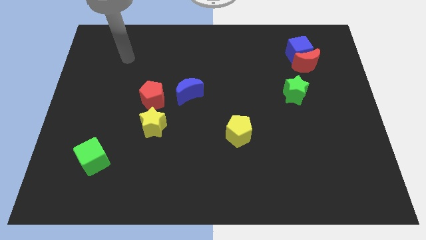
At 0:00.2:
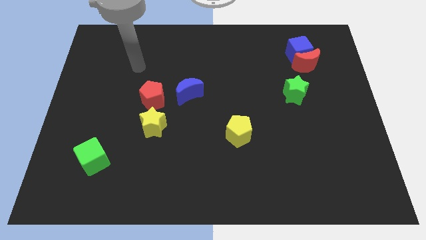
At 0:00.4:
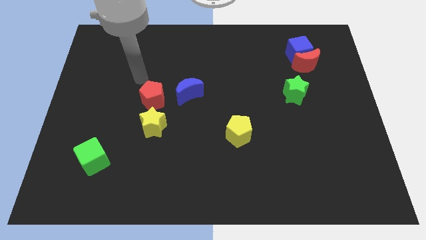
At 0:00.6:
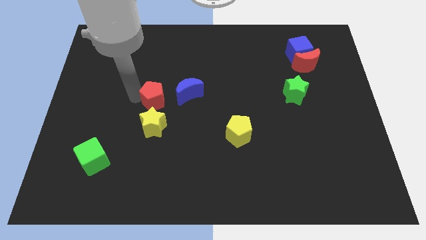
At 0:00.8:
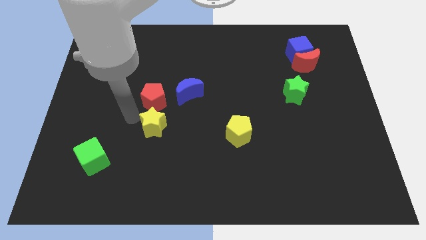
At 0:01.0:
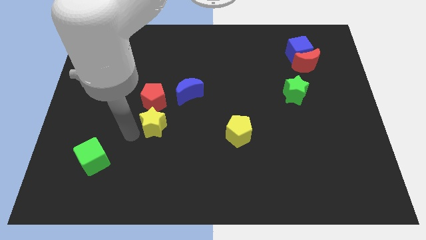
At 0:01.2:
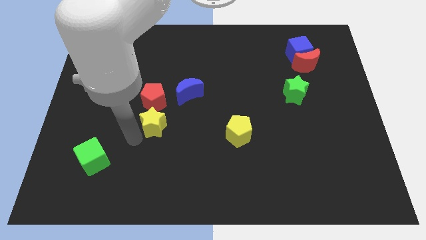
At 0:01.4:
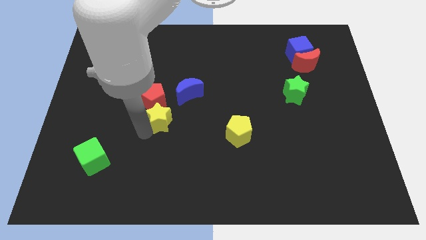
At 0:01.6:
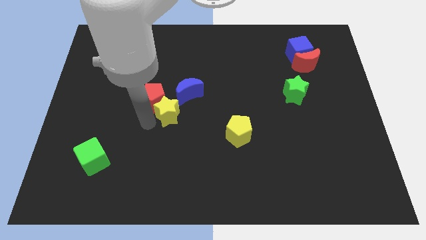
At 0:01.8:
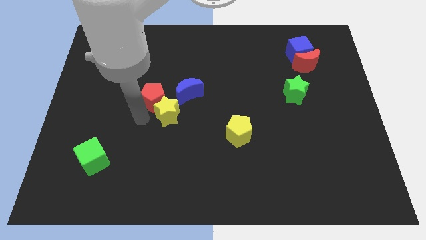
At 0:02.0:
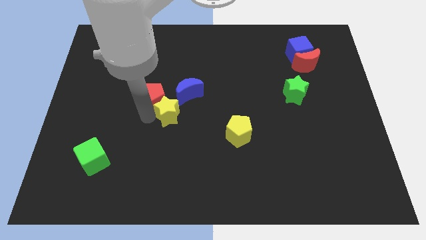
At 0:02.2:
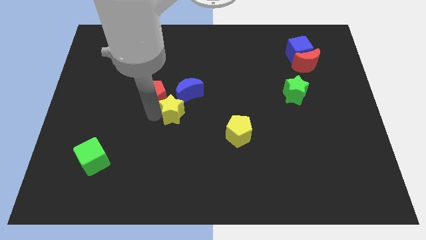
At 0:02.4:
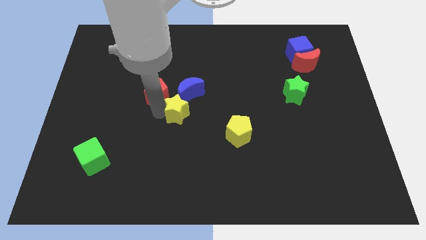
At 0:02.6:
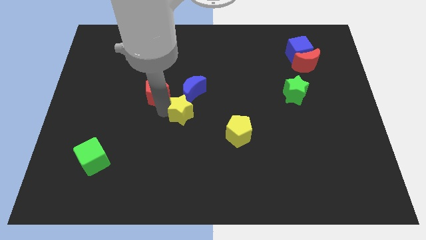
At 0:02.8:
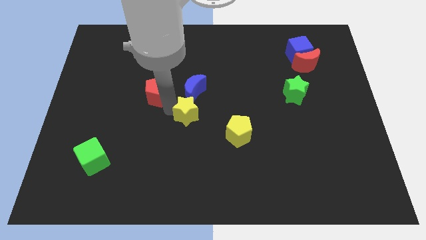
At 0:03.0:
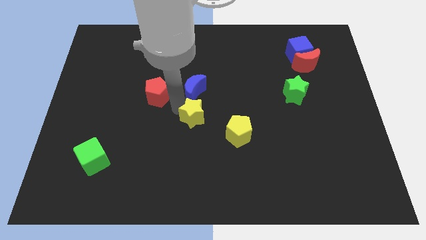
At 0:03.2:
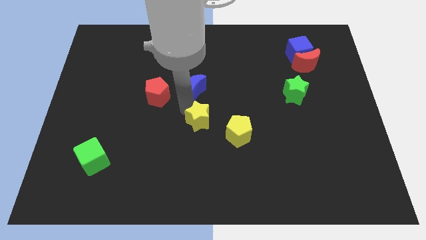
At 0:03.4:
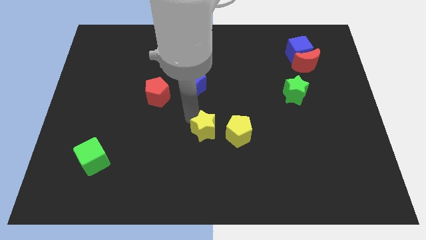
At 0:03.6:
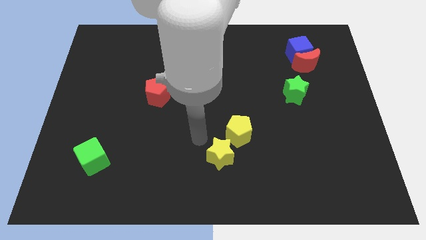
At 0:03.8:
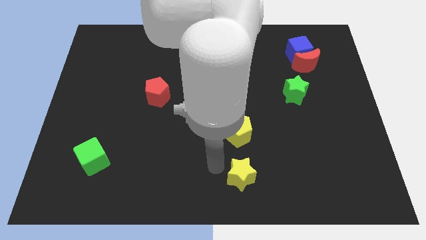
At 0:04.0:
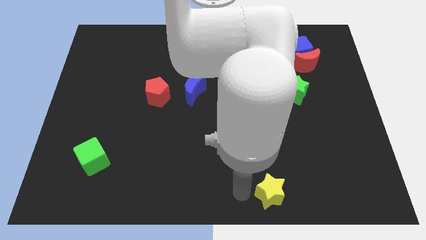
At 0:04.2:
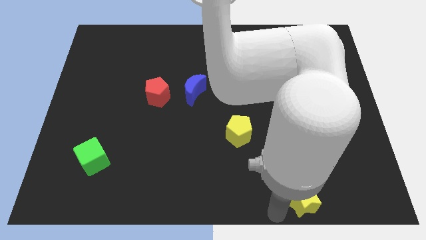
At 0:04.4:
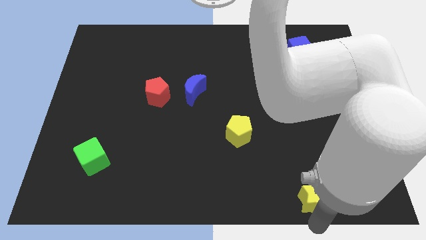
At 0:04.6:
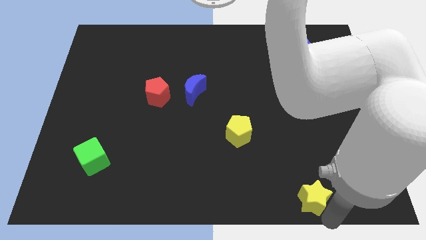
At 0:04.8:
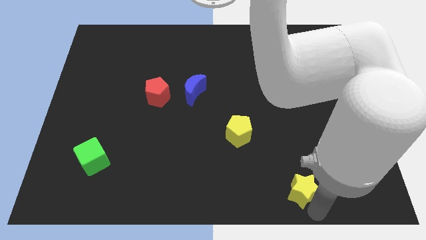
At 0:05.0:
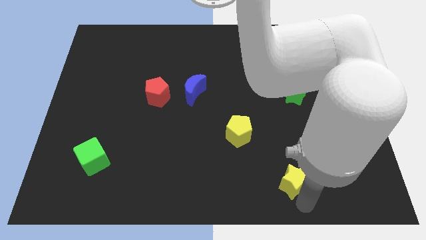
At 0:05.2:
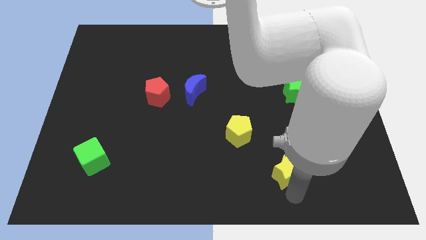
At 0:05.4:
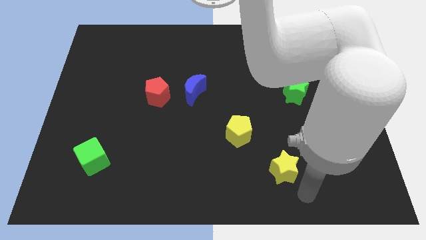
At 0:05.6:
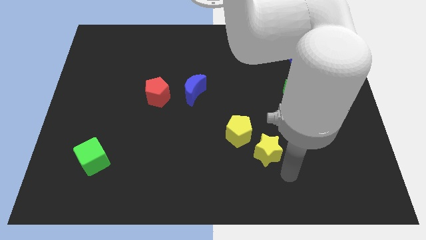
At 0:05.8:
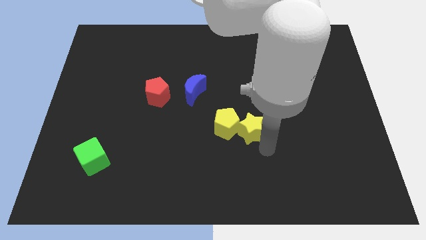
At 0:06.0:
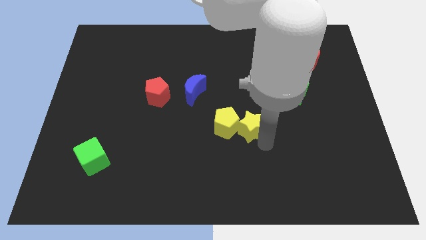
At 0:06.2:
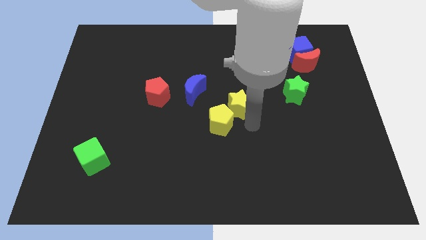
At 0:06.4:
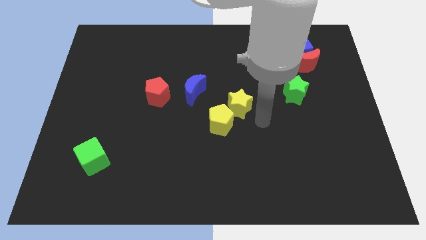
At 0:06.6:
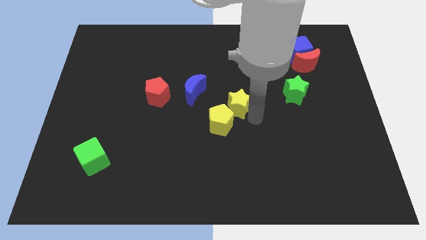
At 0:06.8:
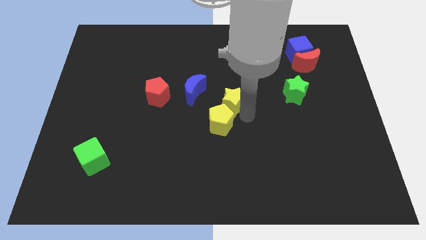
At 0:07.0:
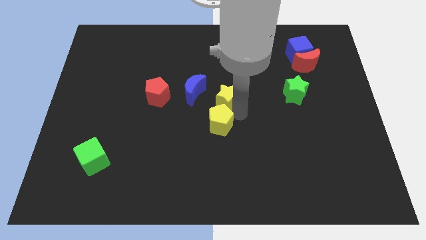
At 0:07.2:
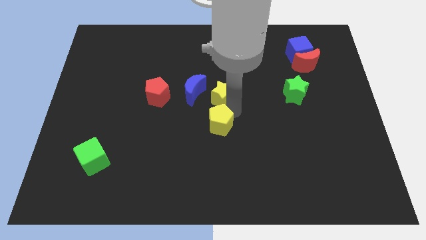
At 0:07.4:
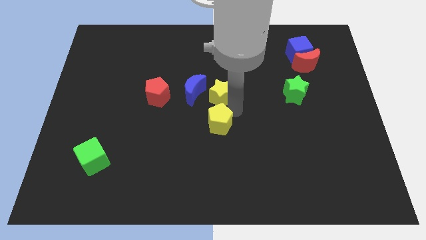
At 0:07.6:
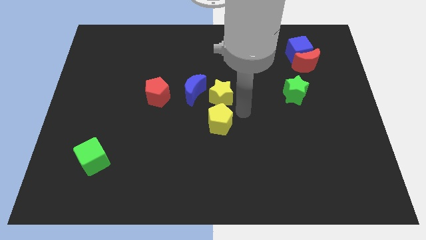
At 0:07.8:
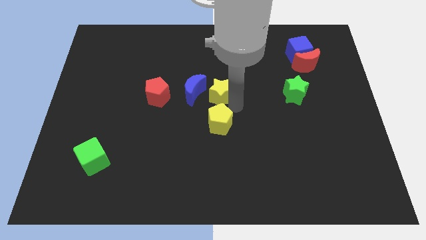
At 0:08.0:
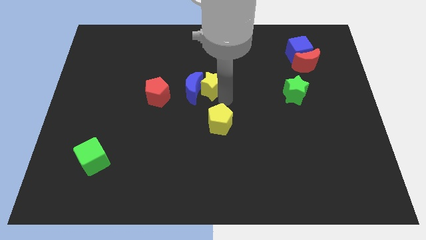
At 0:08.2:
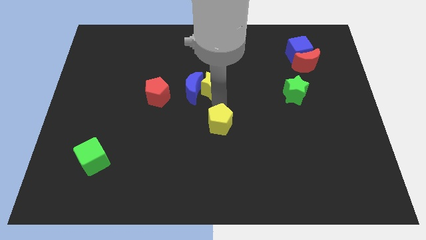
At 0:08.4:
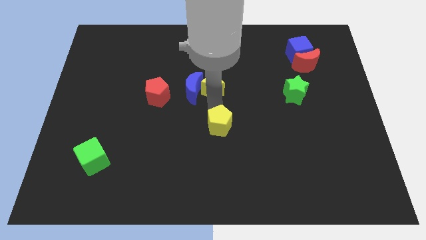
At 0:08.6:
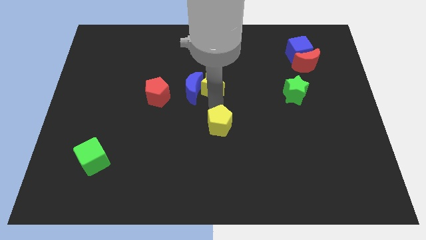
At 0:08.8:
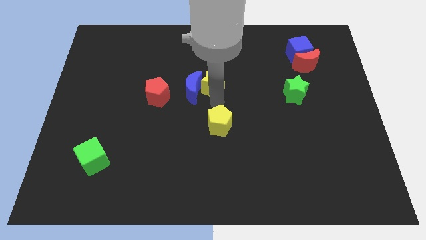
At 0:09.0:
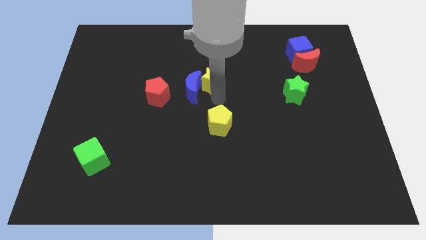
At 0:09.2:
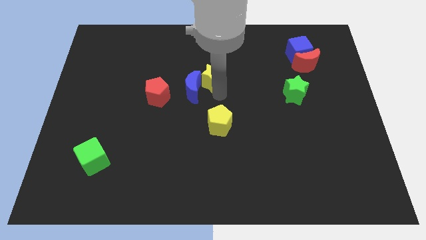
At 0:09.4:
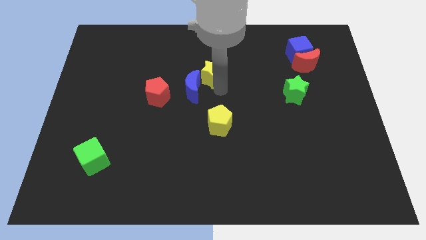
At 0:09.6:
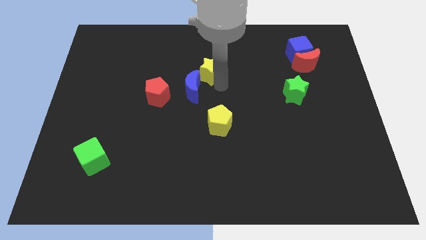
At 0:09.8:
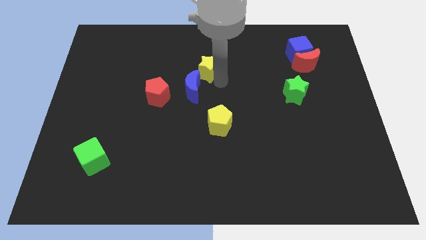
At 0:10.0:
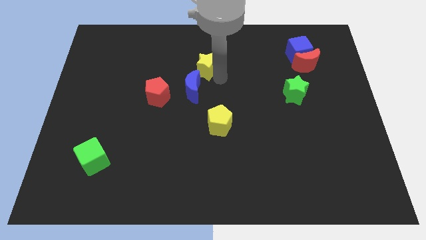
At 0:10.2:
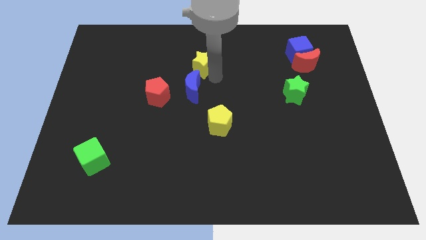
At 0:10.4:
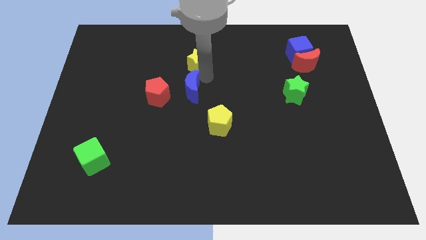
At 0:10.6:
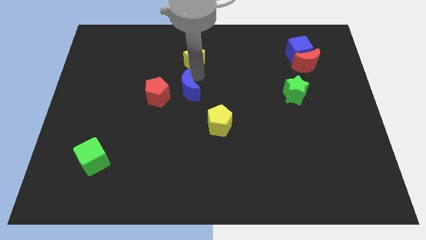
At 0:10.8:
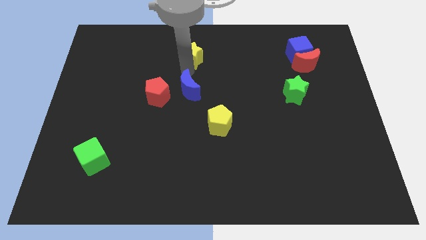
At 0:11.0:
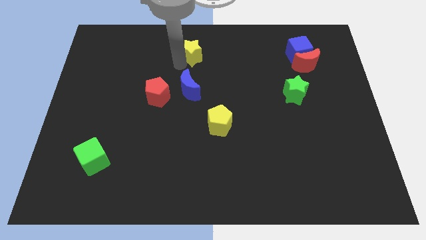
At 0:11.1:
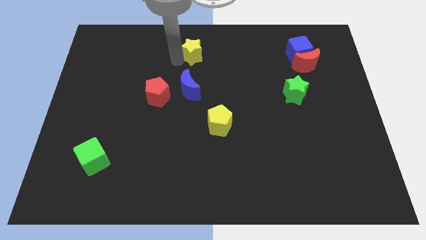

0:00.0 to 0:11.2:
move the yellow star to the top side

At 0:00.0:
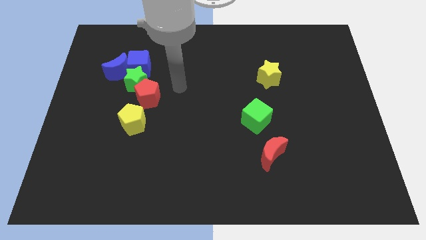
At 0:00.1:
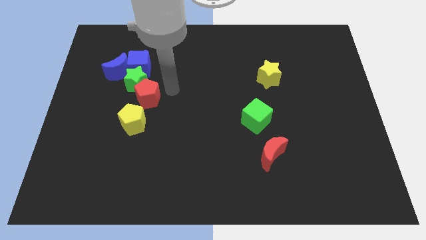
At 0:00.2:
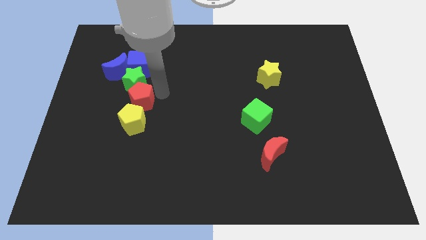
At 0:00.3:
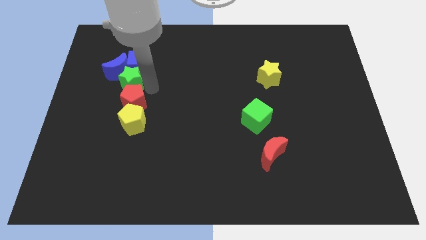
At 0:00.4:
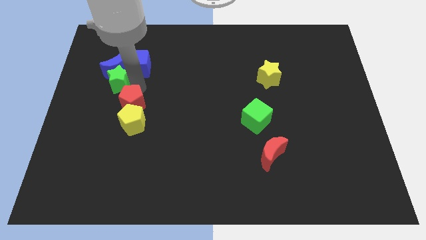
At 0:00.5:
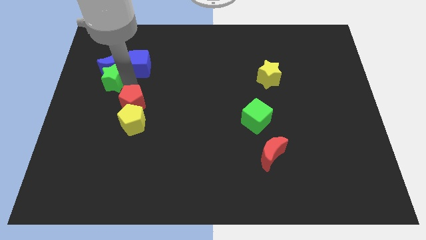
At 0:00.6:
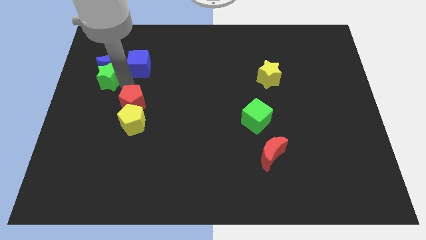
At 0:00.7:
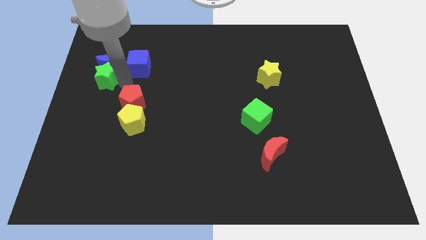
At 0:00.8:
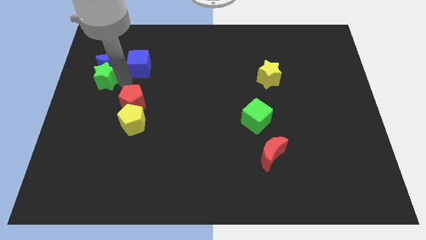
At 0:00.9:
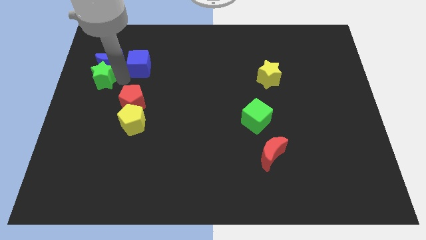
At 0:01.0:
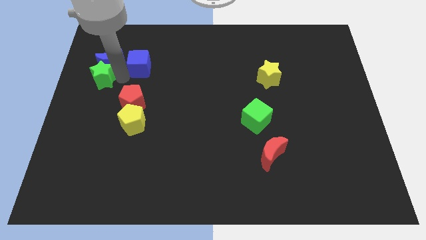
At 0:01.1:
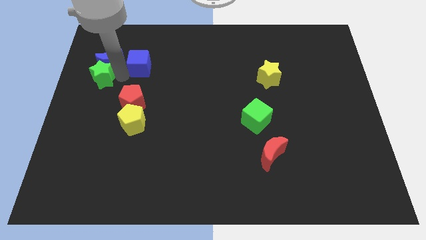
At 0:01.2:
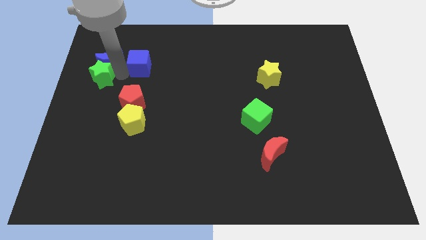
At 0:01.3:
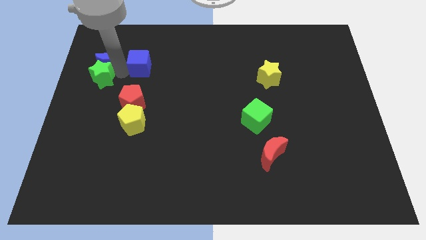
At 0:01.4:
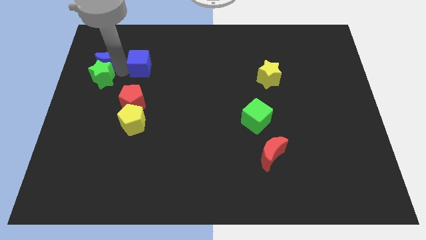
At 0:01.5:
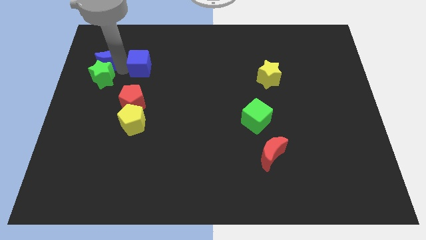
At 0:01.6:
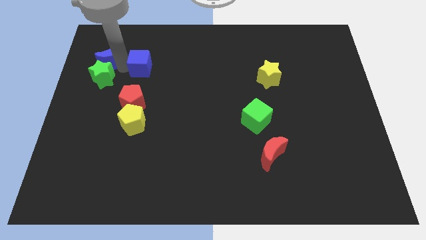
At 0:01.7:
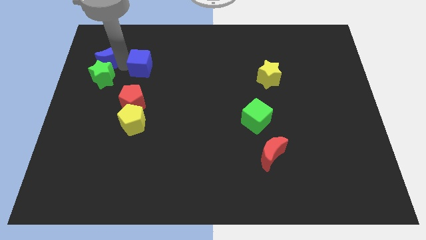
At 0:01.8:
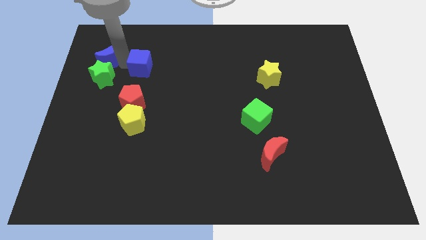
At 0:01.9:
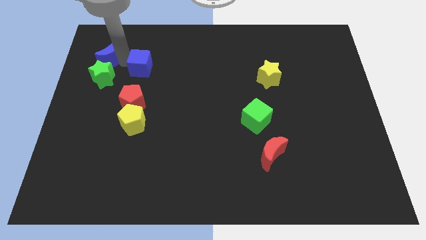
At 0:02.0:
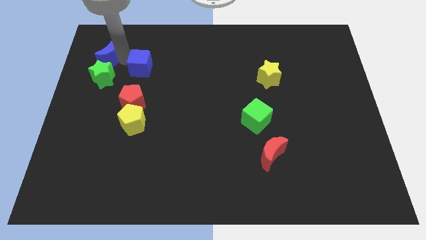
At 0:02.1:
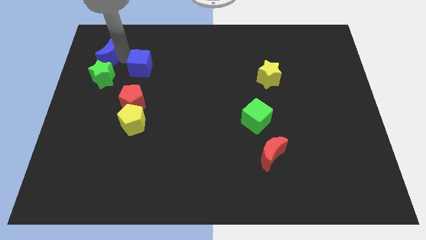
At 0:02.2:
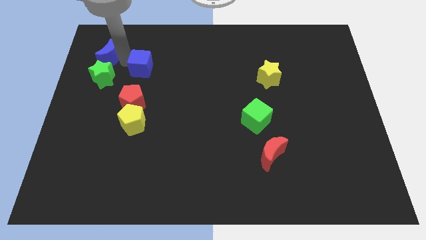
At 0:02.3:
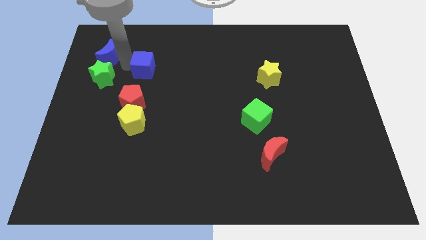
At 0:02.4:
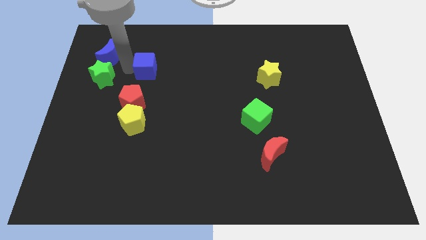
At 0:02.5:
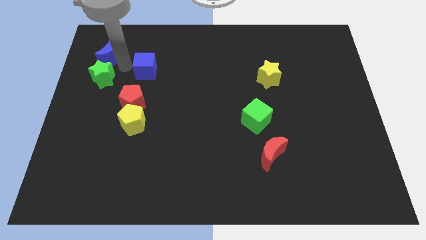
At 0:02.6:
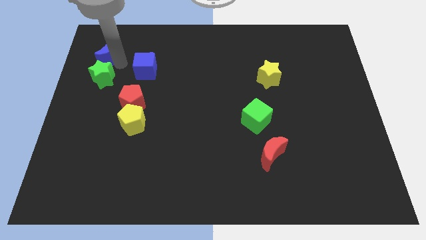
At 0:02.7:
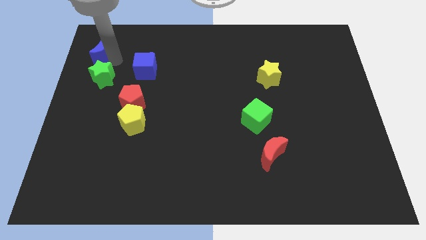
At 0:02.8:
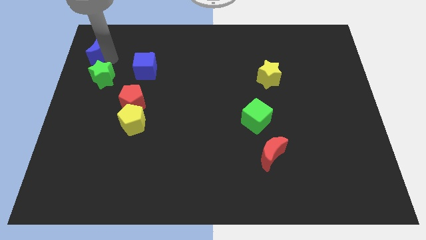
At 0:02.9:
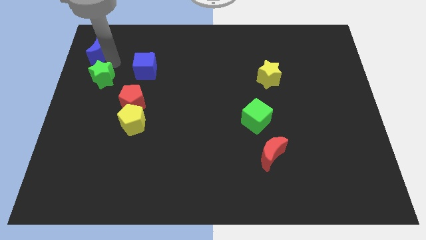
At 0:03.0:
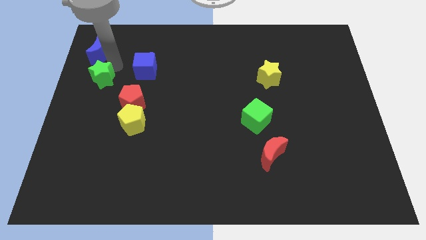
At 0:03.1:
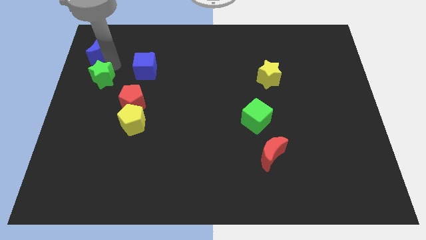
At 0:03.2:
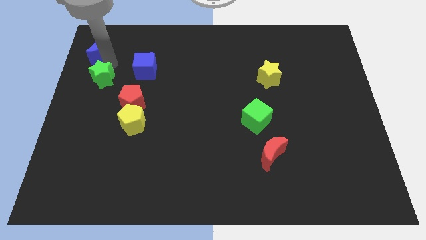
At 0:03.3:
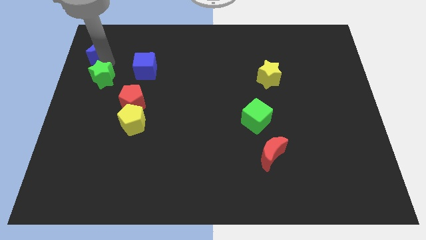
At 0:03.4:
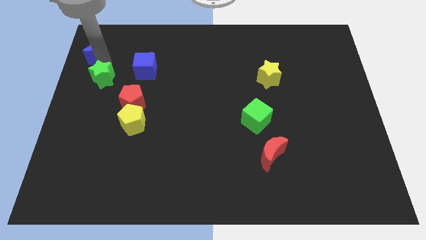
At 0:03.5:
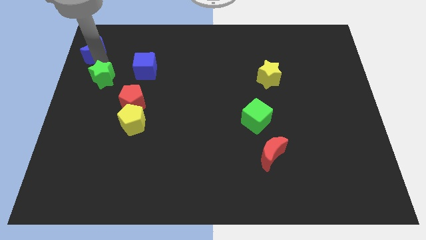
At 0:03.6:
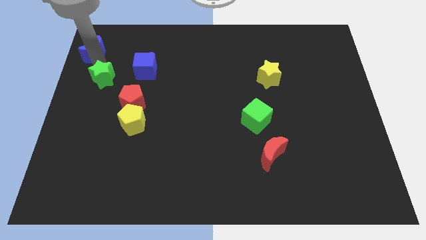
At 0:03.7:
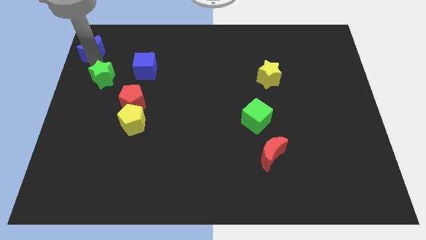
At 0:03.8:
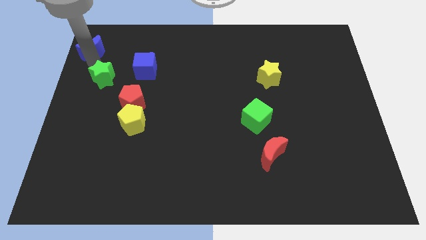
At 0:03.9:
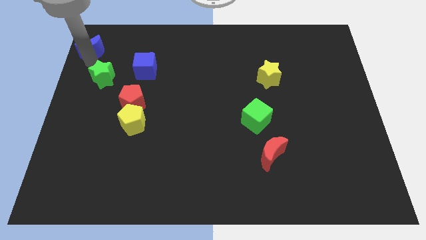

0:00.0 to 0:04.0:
slide the blue moon to the top left
